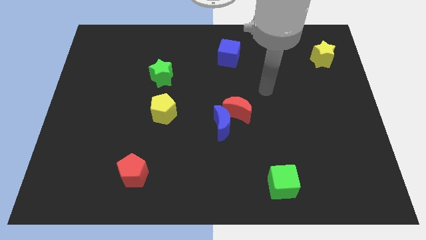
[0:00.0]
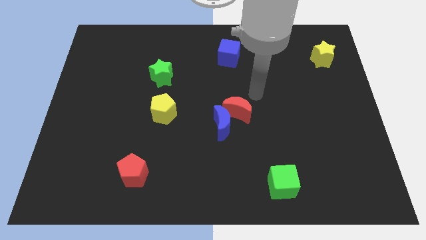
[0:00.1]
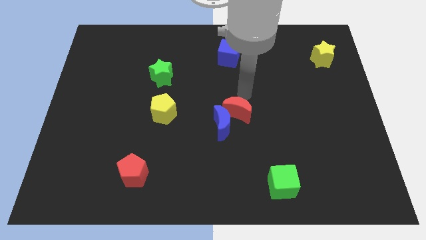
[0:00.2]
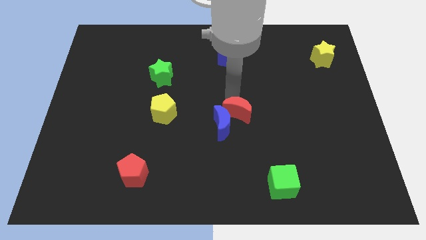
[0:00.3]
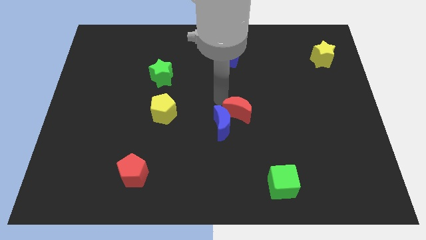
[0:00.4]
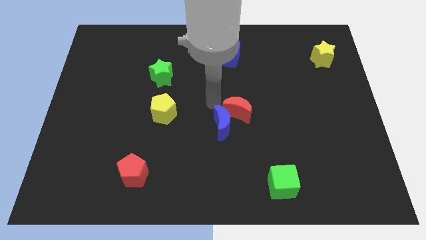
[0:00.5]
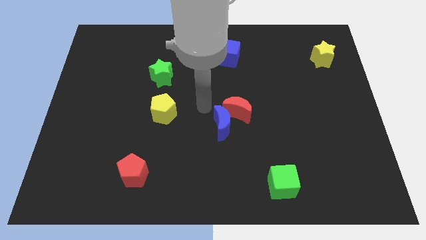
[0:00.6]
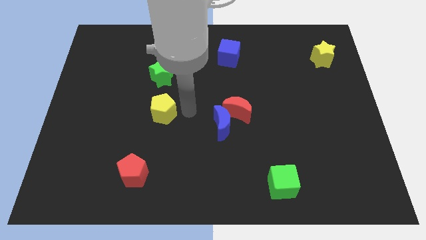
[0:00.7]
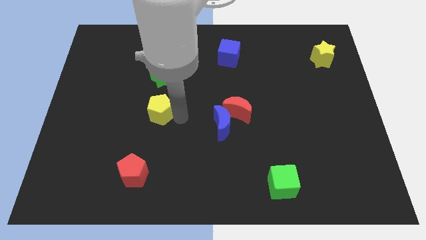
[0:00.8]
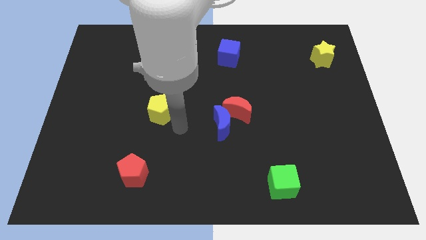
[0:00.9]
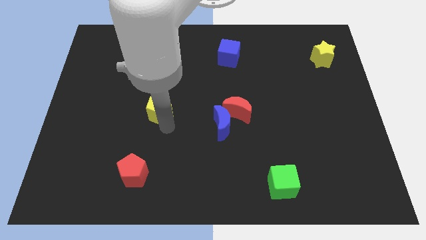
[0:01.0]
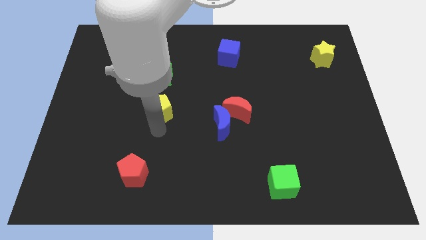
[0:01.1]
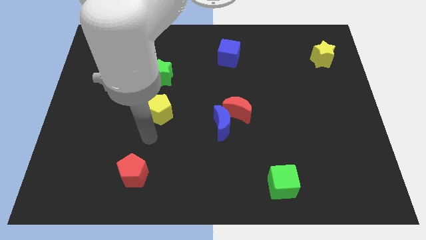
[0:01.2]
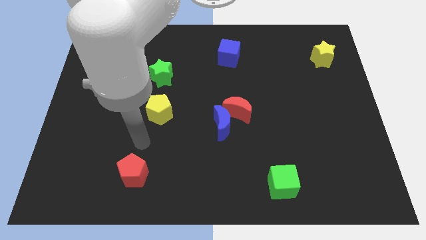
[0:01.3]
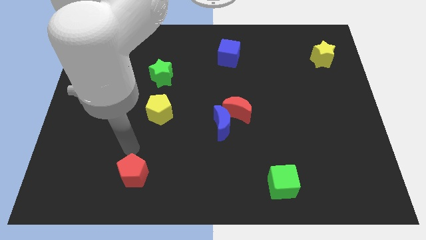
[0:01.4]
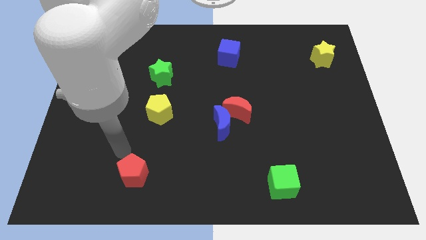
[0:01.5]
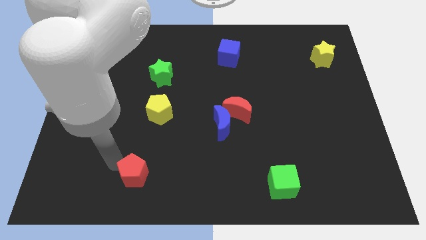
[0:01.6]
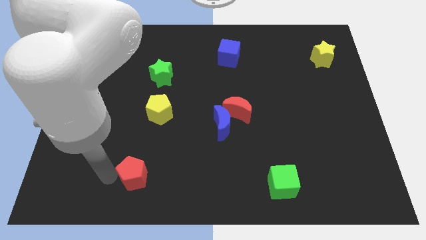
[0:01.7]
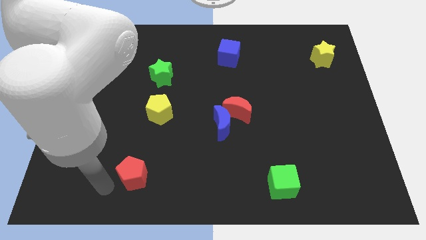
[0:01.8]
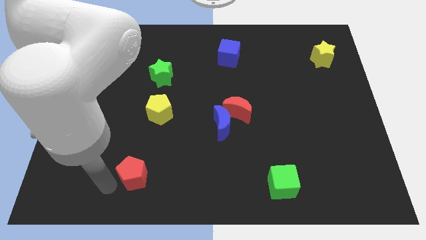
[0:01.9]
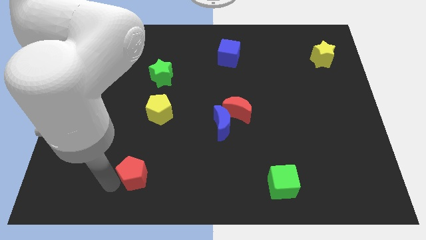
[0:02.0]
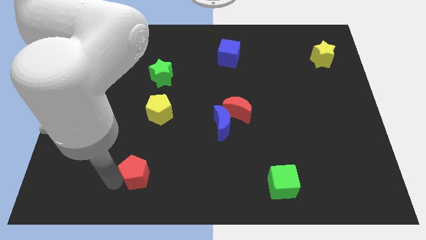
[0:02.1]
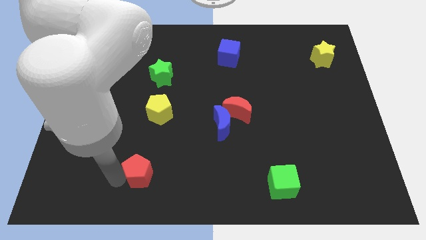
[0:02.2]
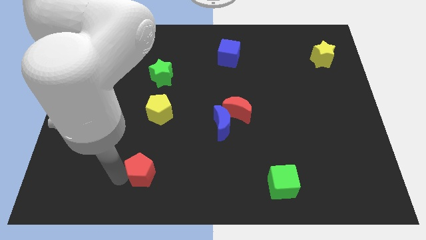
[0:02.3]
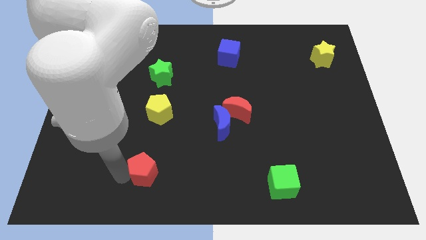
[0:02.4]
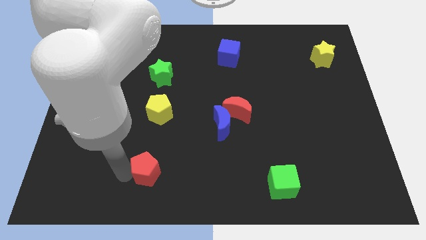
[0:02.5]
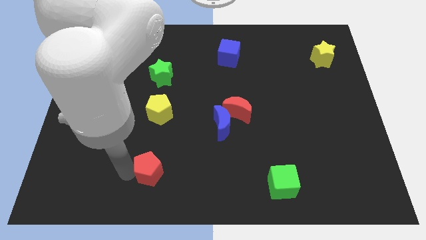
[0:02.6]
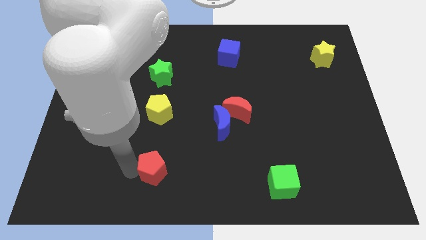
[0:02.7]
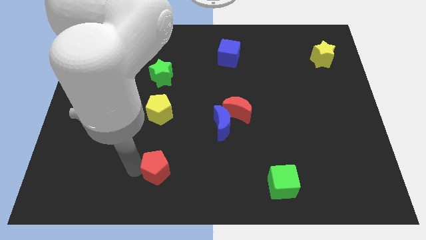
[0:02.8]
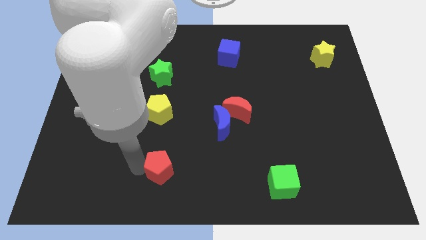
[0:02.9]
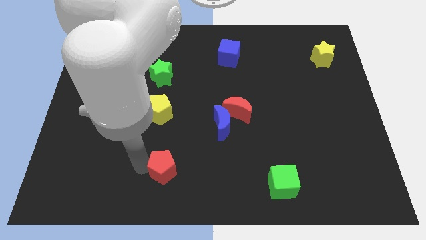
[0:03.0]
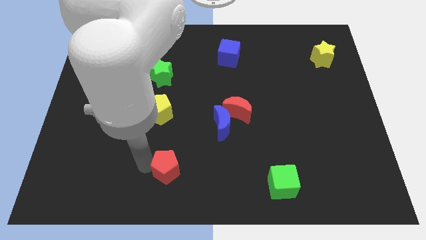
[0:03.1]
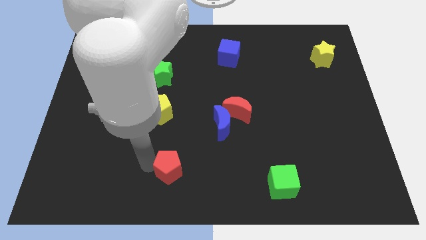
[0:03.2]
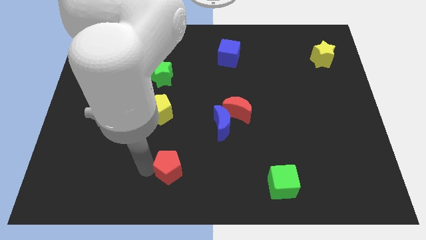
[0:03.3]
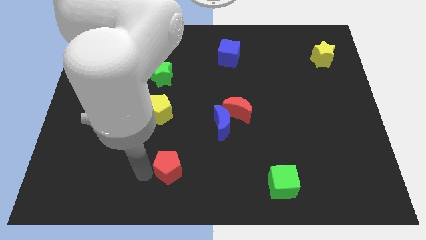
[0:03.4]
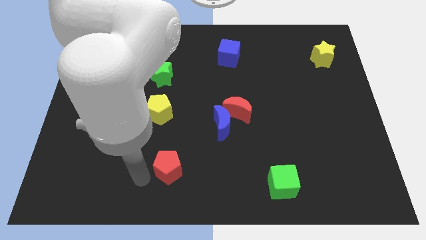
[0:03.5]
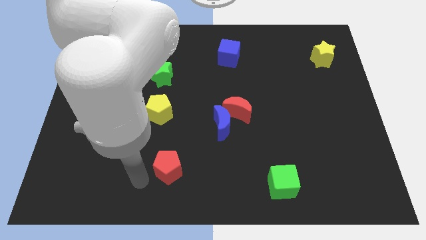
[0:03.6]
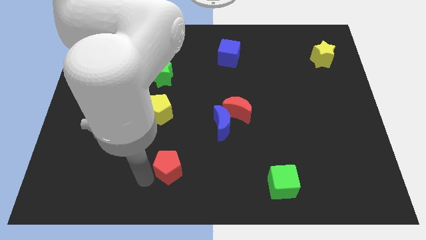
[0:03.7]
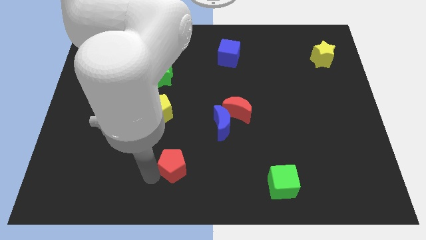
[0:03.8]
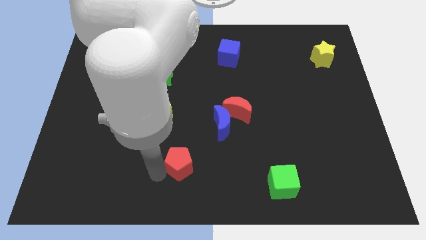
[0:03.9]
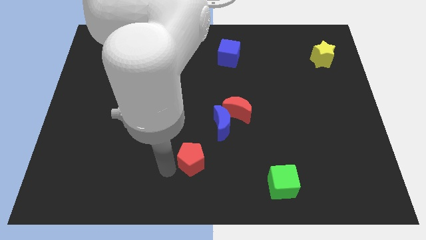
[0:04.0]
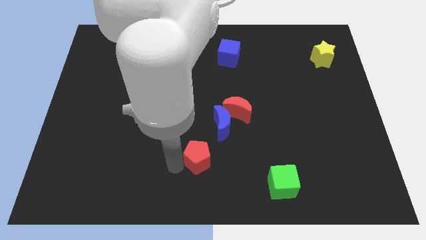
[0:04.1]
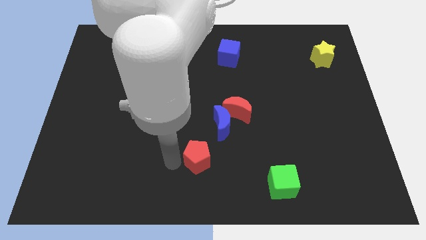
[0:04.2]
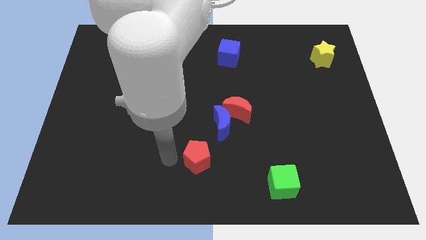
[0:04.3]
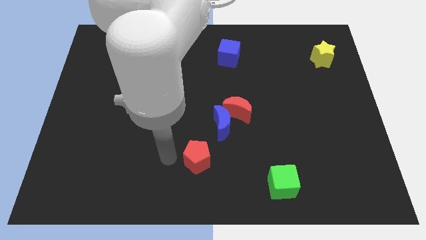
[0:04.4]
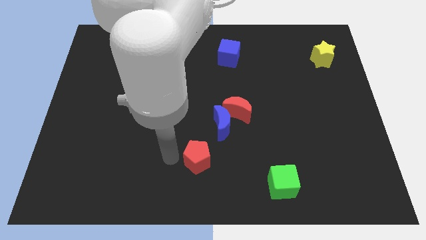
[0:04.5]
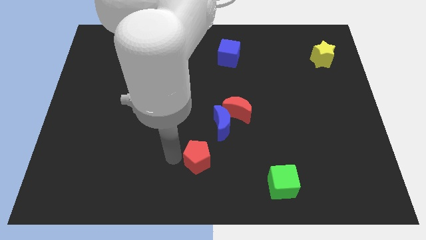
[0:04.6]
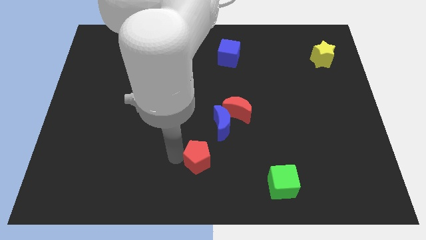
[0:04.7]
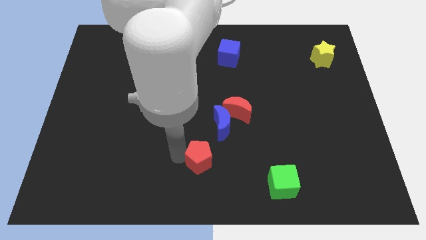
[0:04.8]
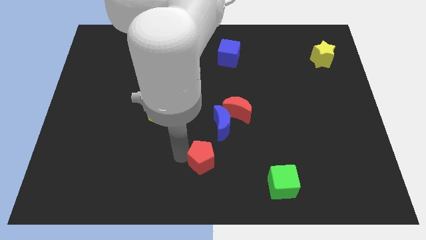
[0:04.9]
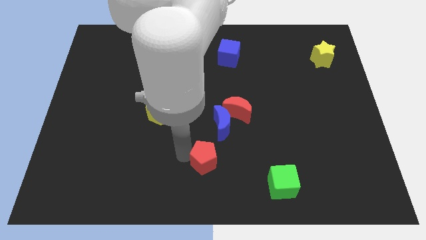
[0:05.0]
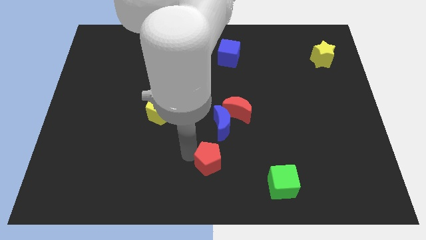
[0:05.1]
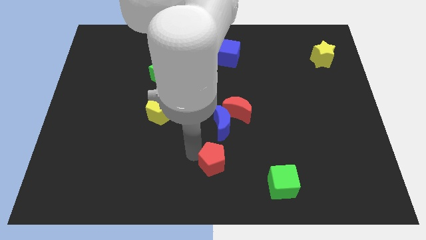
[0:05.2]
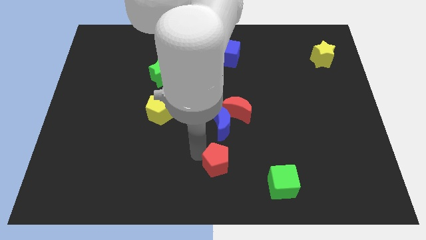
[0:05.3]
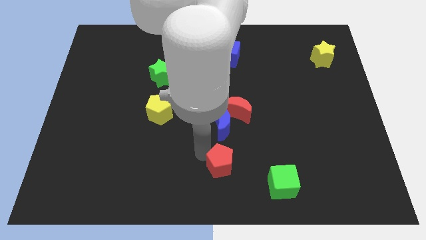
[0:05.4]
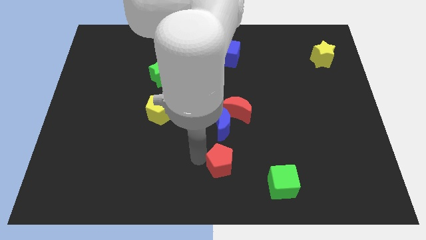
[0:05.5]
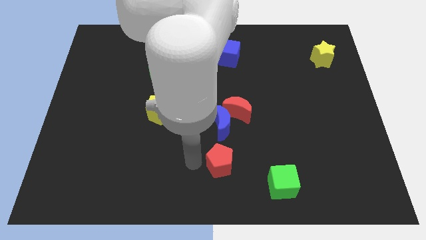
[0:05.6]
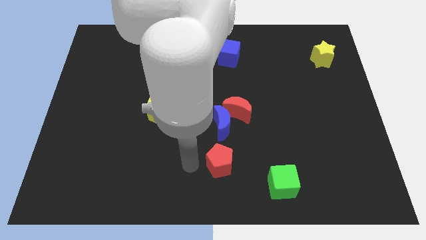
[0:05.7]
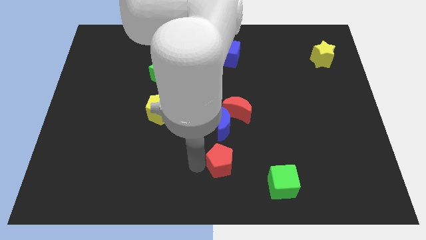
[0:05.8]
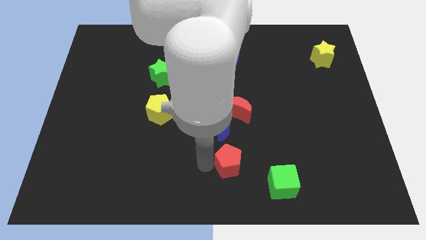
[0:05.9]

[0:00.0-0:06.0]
move the red pentagon to the top left side of the green cube

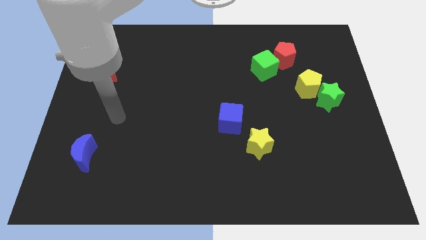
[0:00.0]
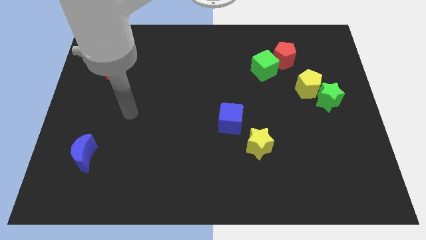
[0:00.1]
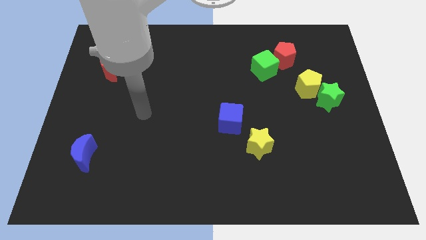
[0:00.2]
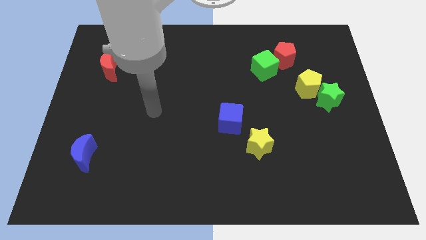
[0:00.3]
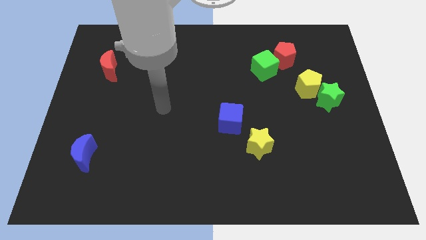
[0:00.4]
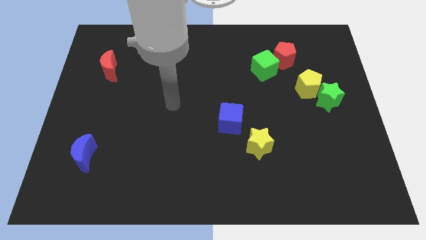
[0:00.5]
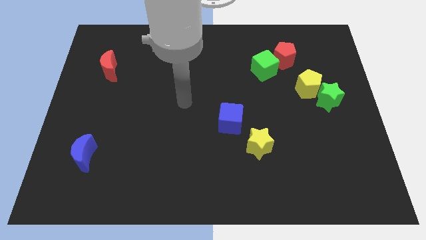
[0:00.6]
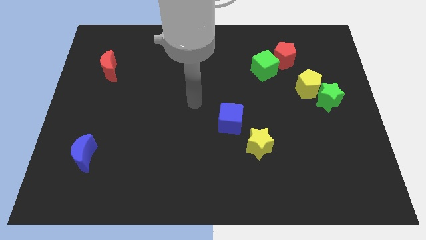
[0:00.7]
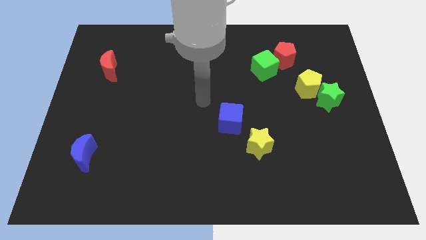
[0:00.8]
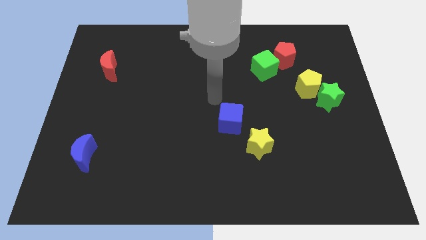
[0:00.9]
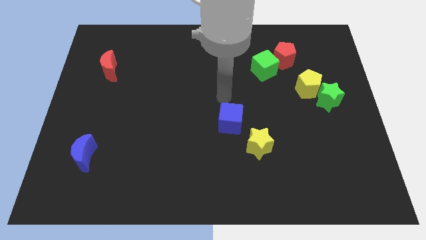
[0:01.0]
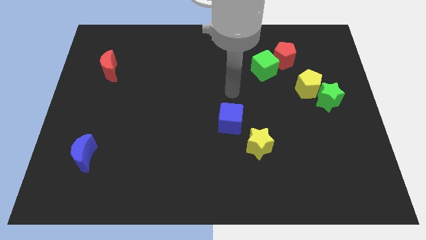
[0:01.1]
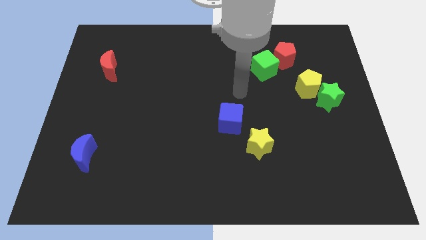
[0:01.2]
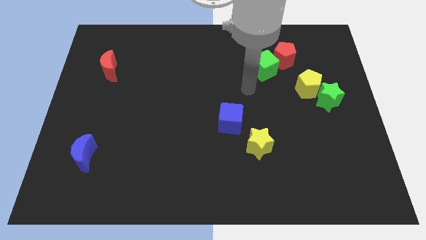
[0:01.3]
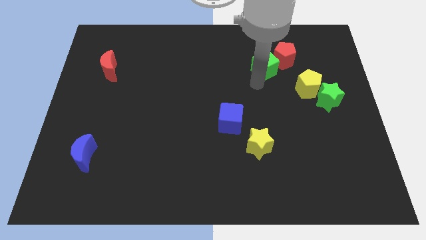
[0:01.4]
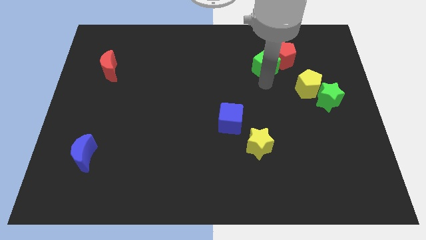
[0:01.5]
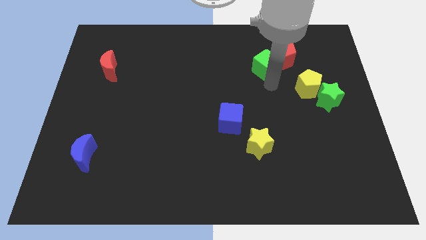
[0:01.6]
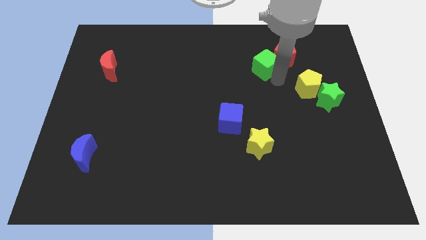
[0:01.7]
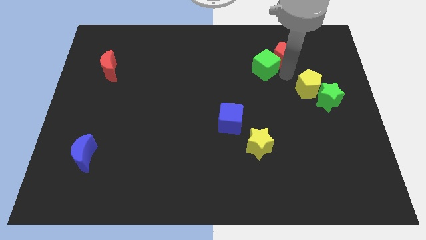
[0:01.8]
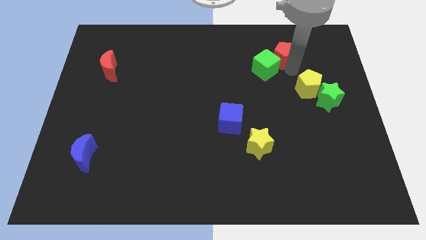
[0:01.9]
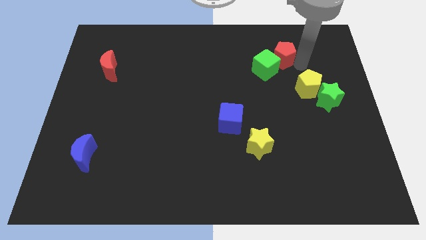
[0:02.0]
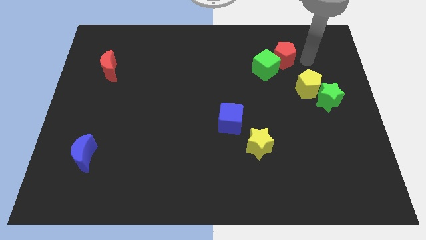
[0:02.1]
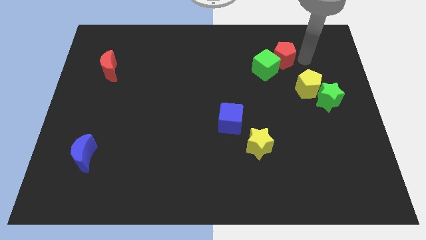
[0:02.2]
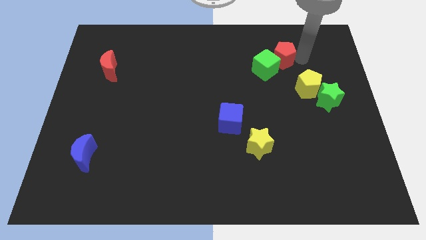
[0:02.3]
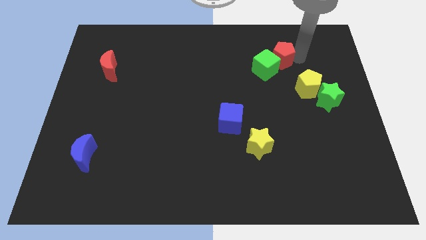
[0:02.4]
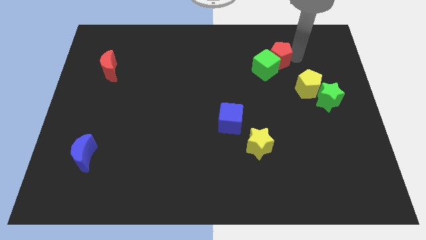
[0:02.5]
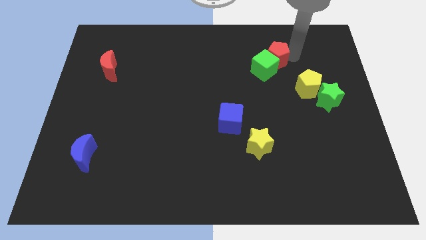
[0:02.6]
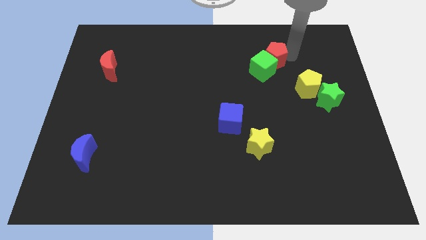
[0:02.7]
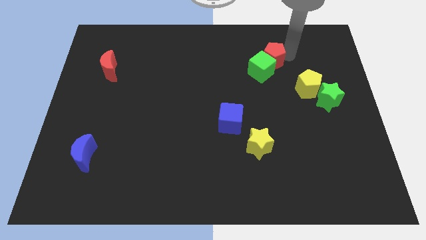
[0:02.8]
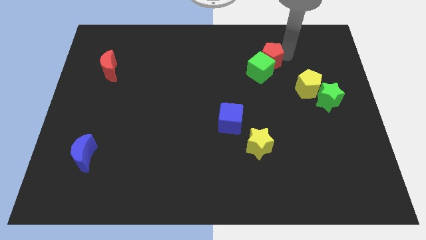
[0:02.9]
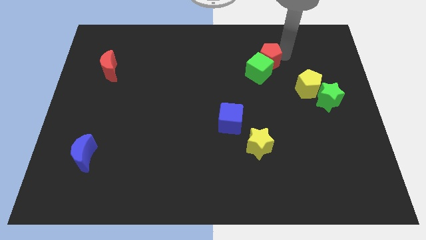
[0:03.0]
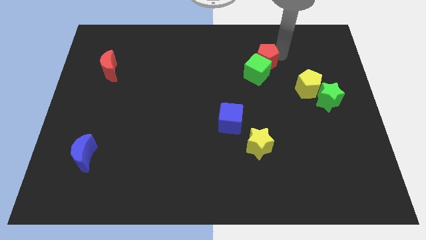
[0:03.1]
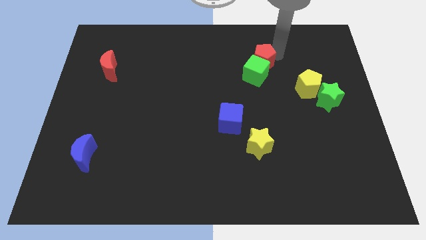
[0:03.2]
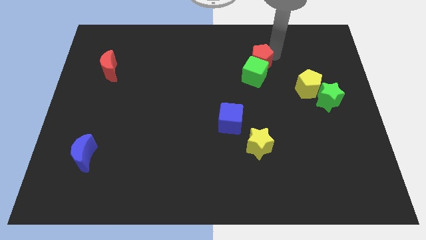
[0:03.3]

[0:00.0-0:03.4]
push the red pentagon to the top left of the green cube
